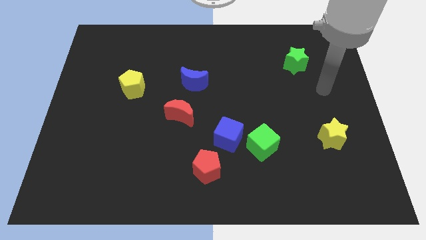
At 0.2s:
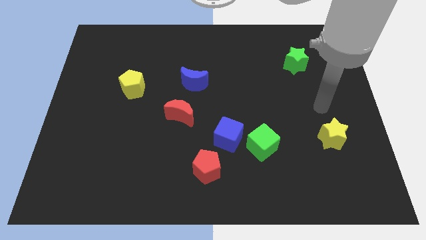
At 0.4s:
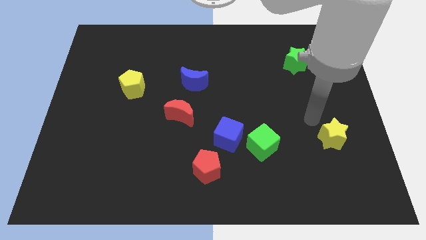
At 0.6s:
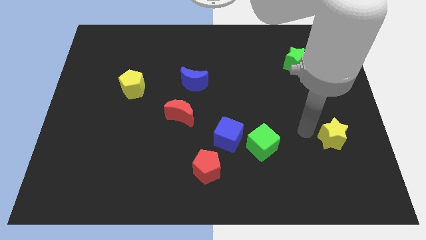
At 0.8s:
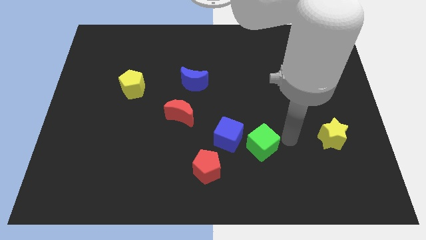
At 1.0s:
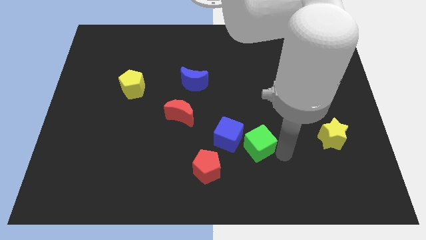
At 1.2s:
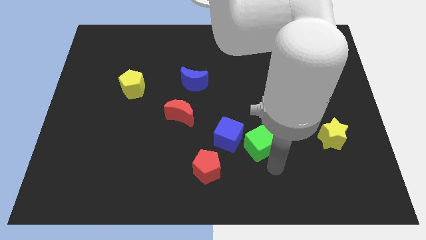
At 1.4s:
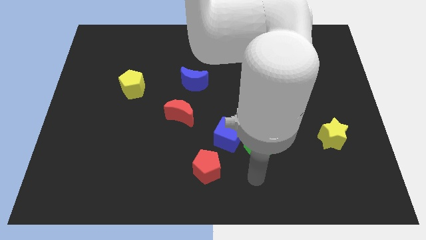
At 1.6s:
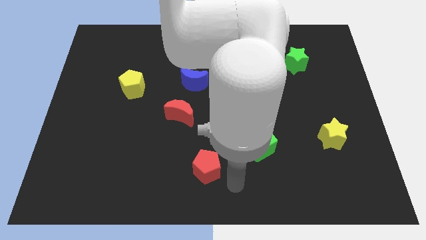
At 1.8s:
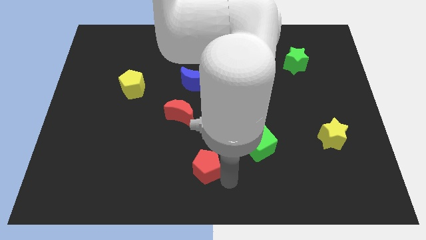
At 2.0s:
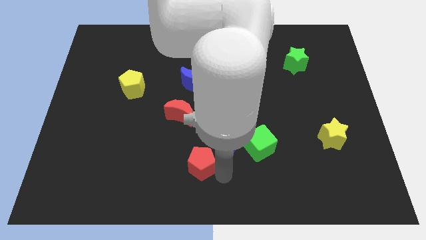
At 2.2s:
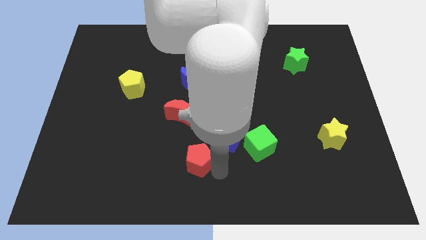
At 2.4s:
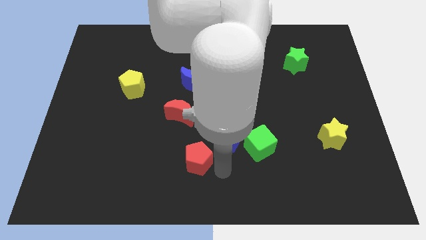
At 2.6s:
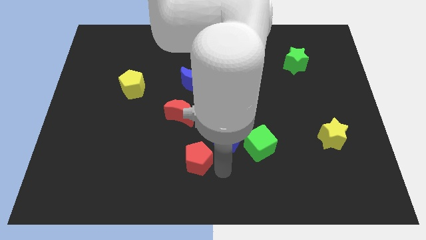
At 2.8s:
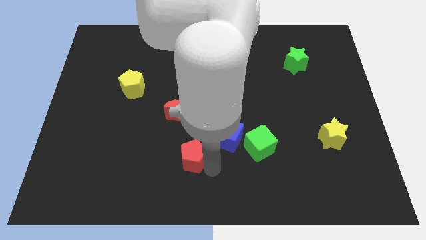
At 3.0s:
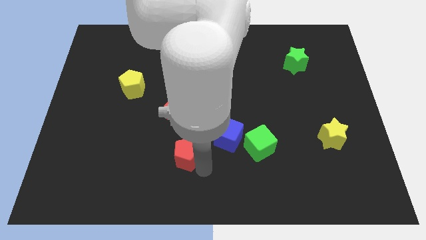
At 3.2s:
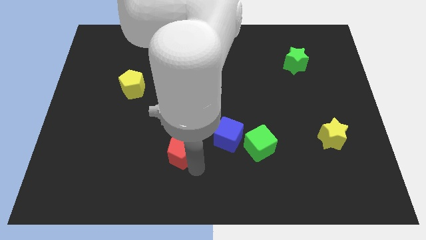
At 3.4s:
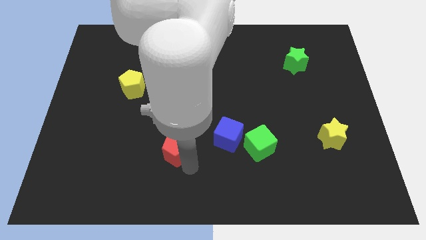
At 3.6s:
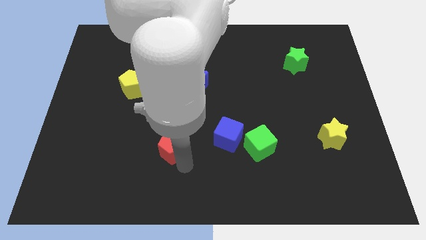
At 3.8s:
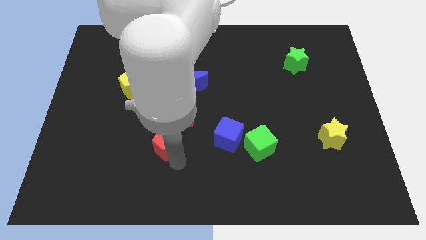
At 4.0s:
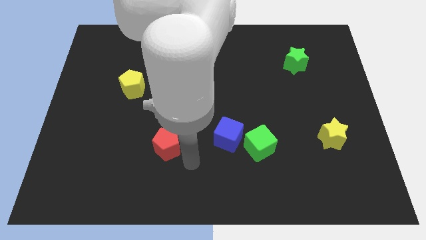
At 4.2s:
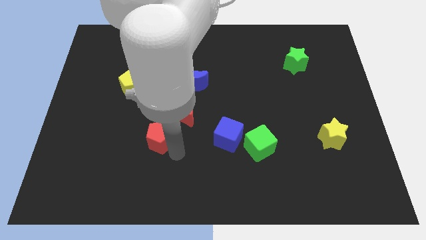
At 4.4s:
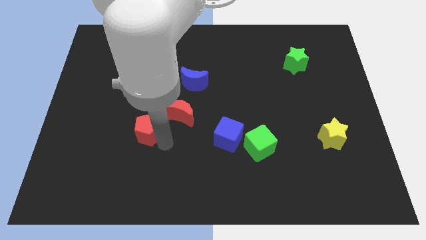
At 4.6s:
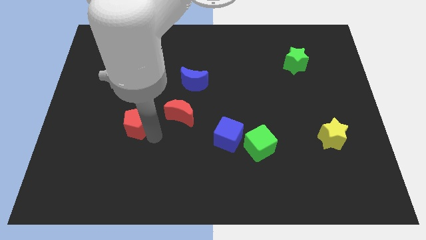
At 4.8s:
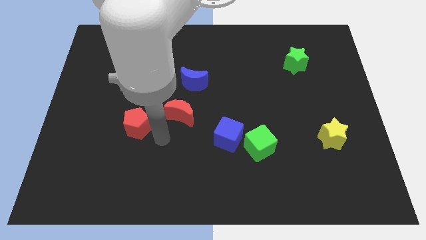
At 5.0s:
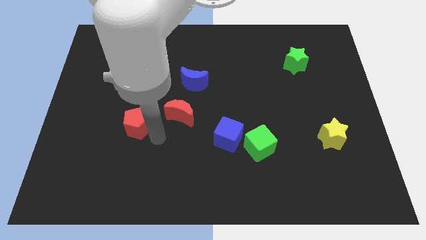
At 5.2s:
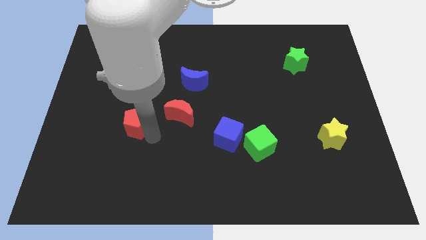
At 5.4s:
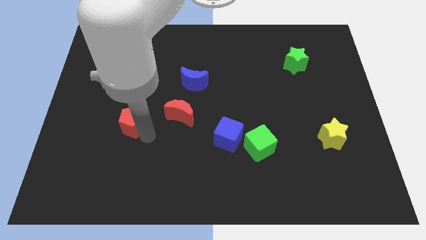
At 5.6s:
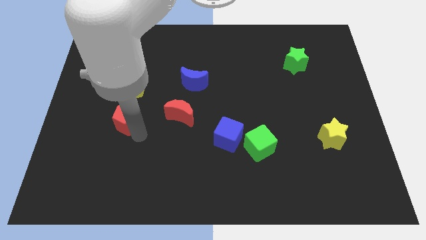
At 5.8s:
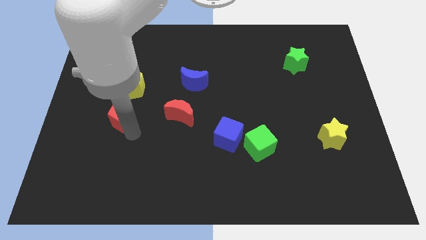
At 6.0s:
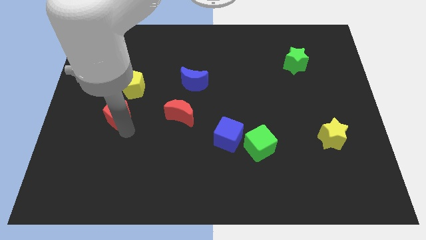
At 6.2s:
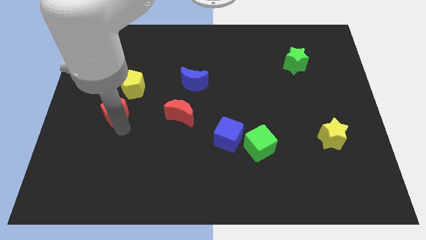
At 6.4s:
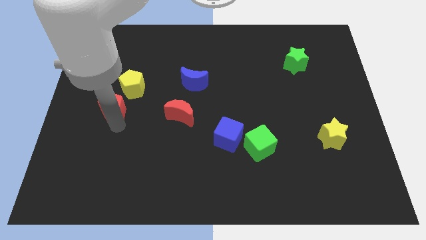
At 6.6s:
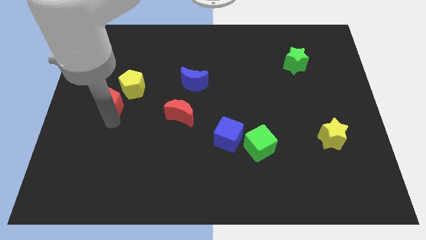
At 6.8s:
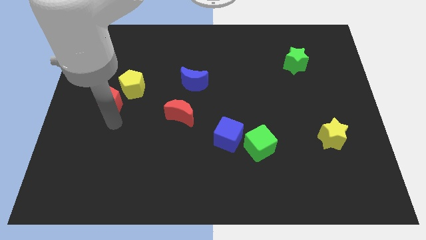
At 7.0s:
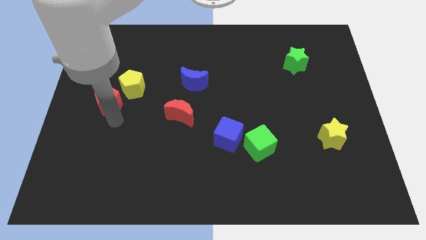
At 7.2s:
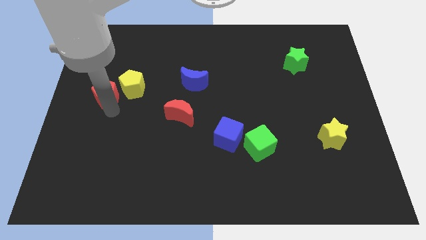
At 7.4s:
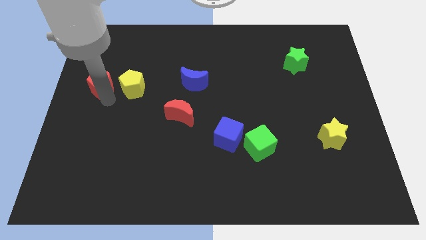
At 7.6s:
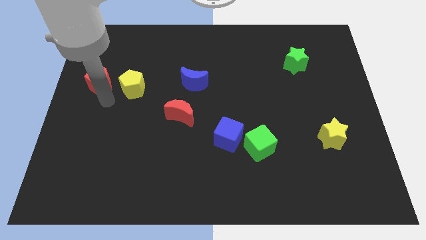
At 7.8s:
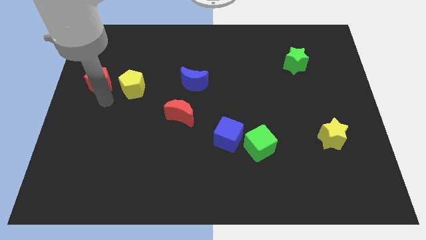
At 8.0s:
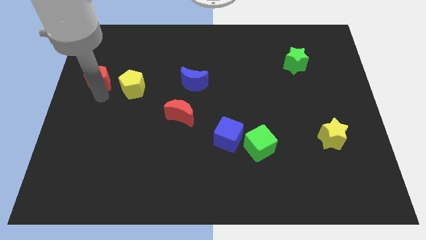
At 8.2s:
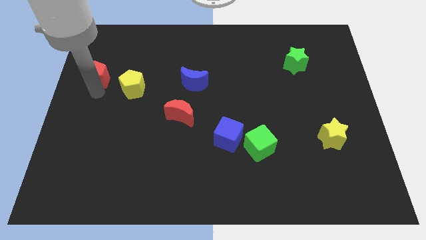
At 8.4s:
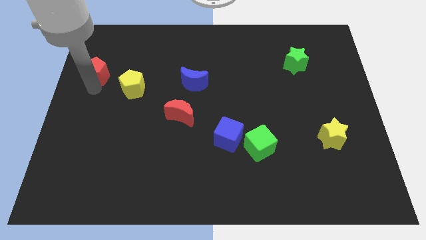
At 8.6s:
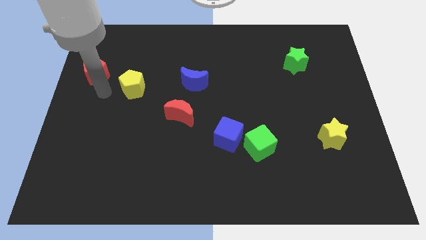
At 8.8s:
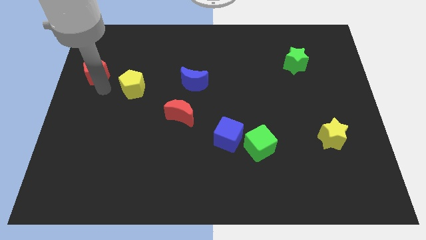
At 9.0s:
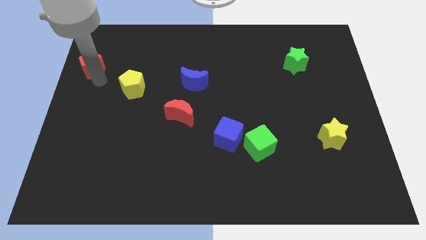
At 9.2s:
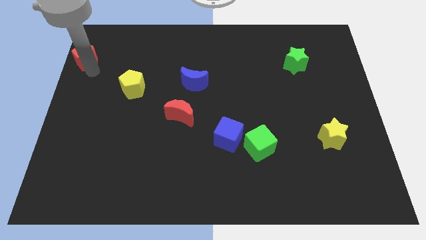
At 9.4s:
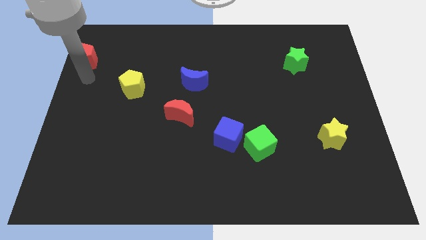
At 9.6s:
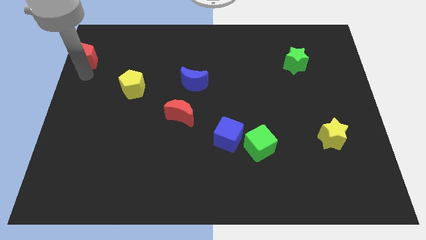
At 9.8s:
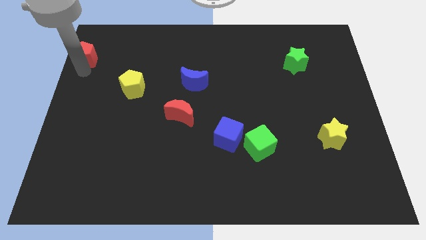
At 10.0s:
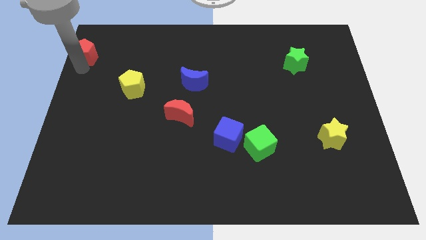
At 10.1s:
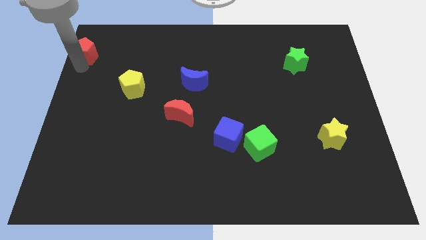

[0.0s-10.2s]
push the red pentagon to the top left
